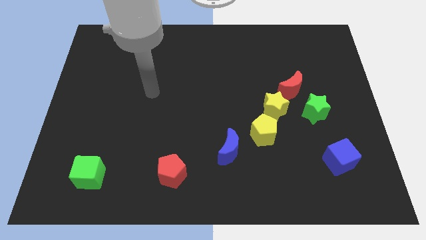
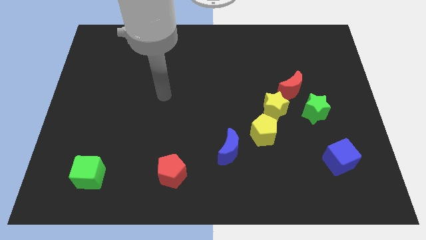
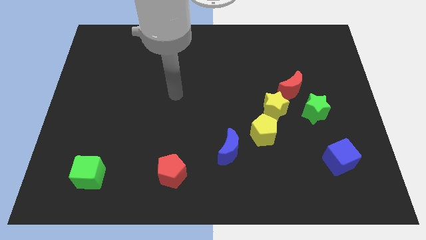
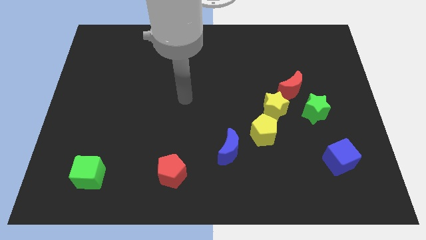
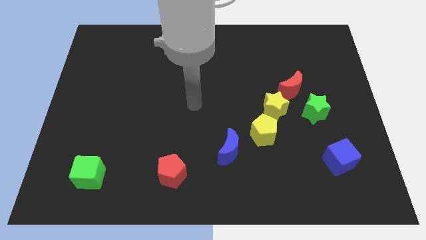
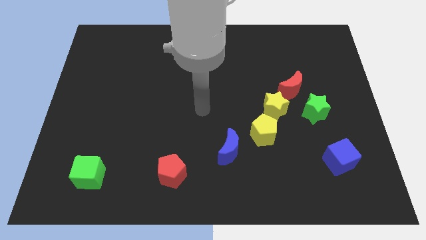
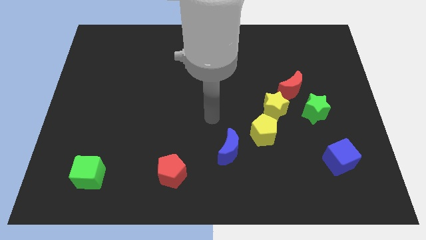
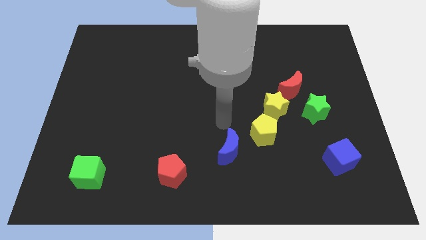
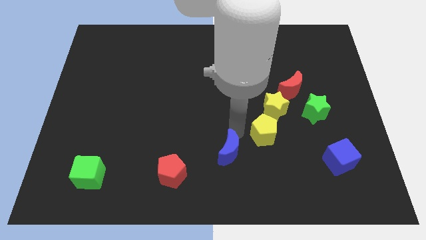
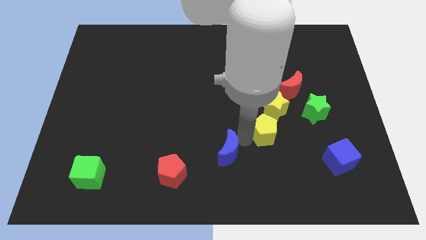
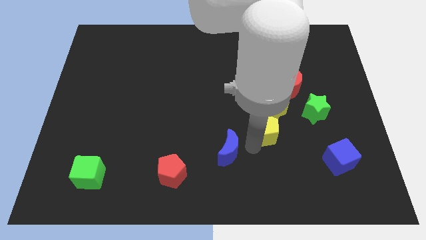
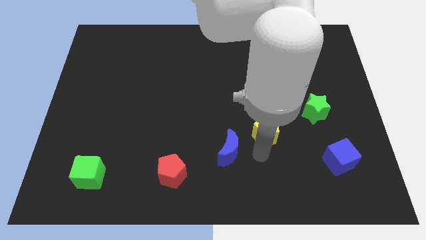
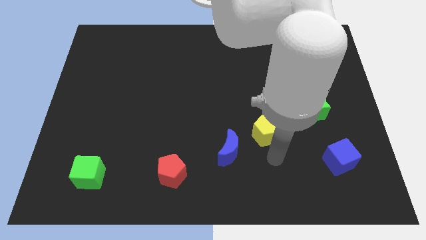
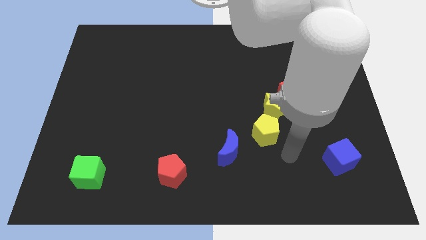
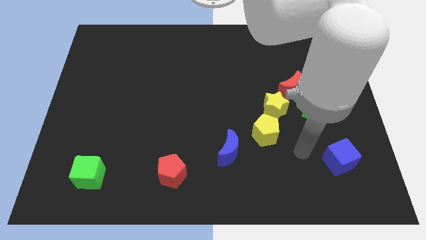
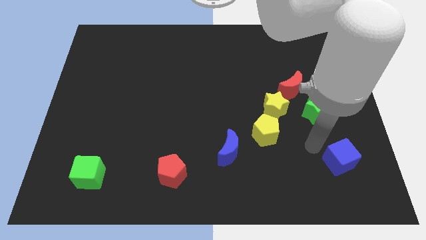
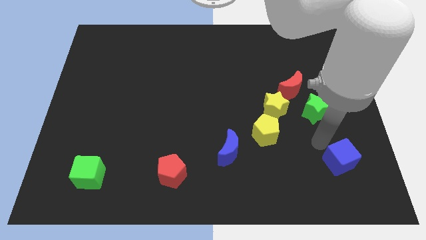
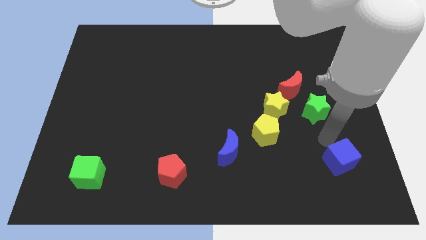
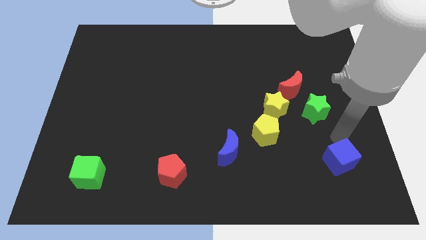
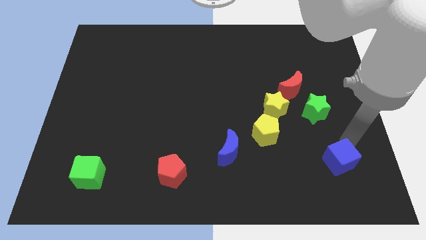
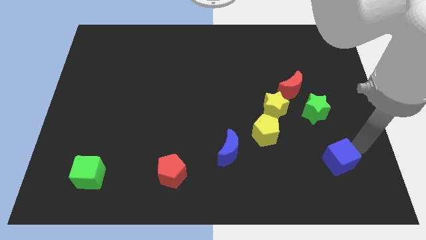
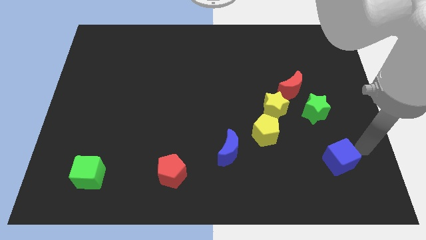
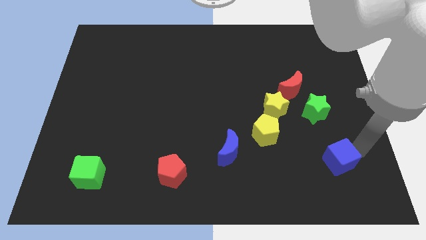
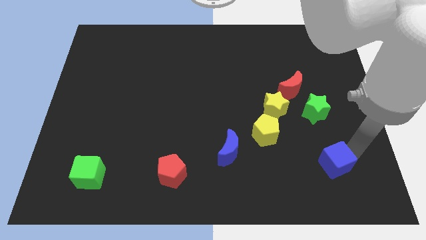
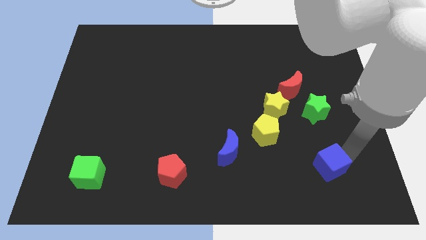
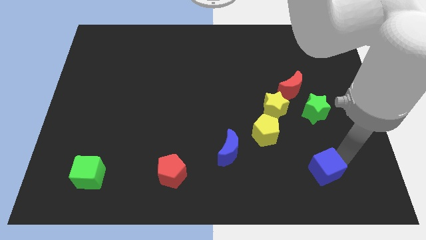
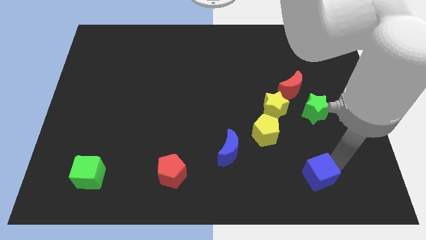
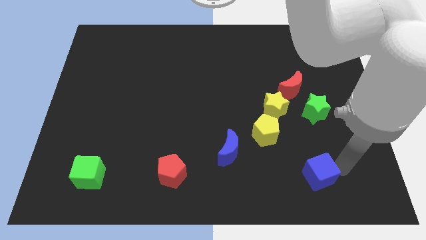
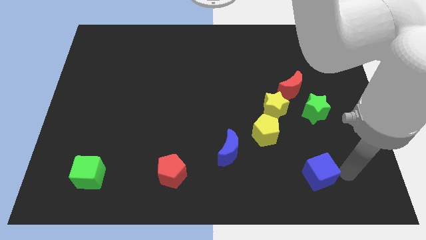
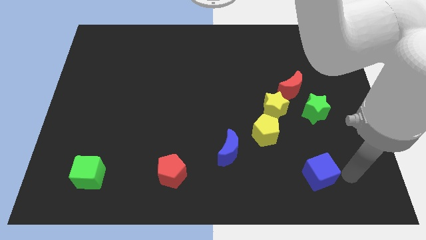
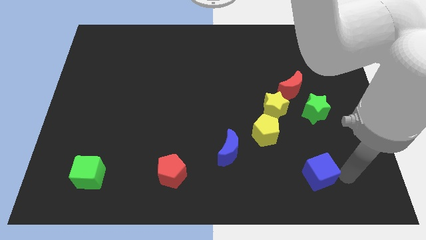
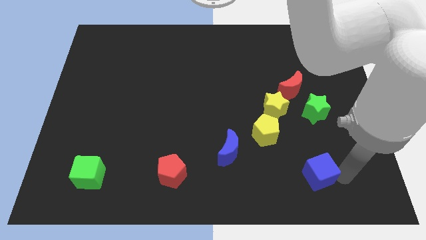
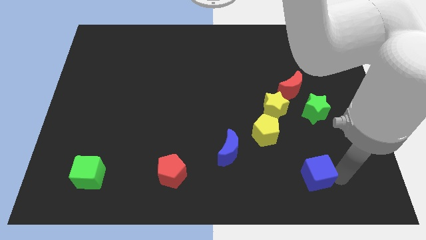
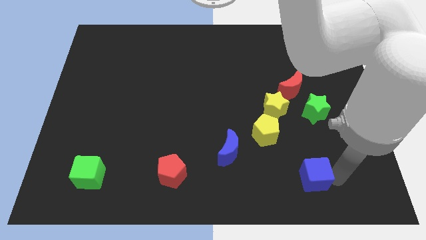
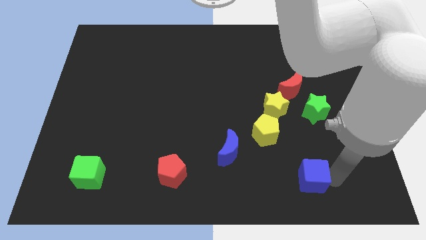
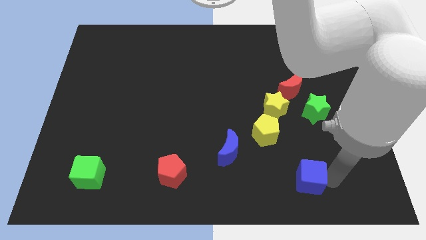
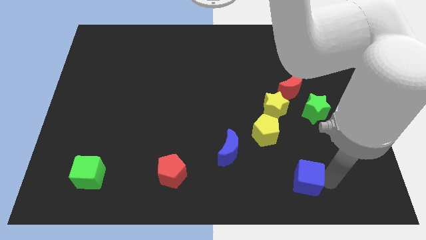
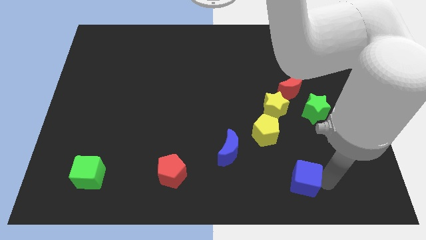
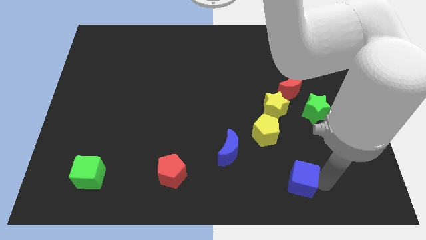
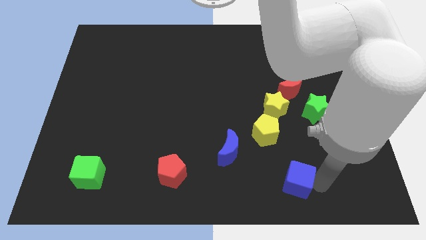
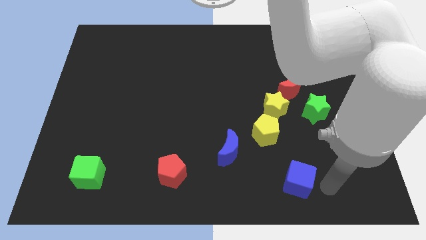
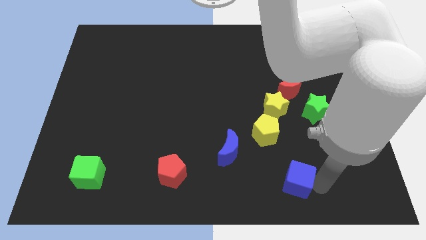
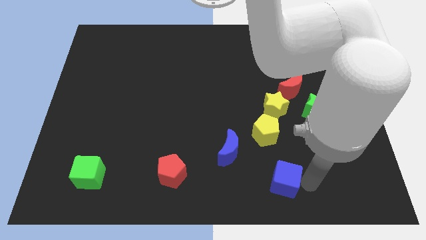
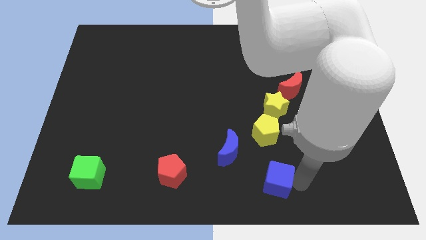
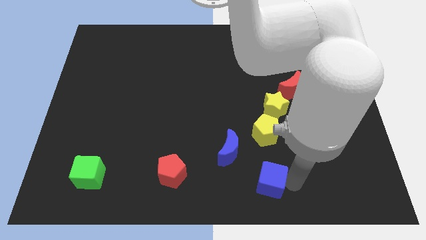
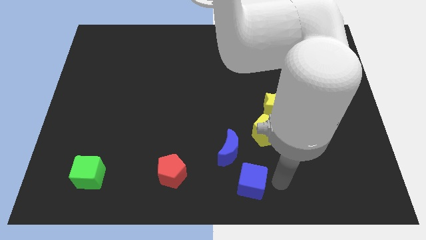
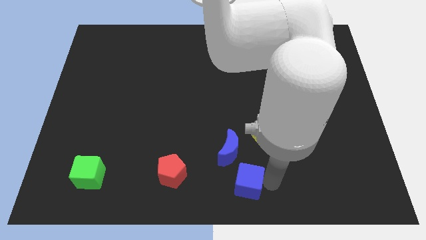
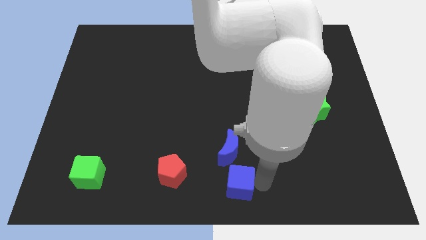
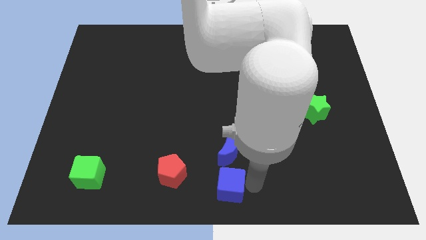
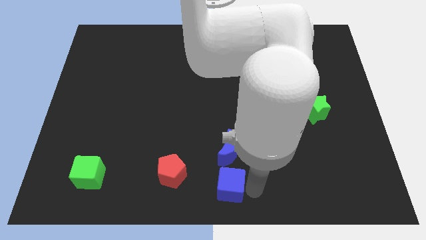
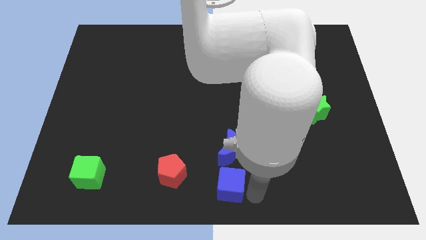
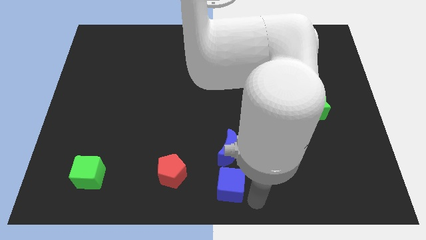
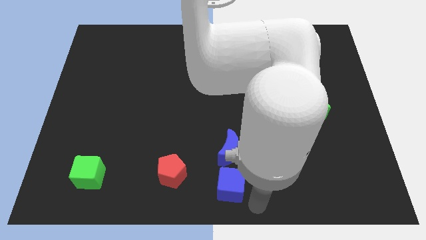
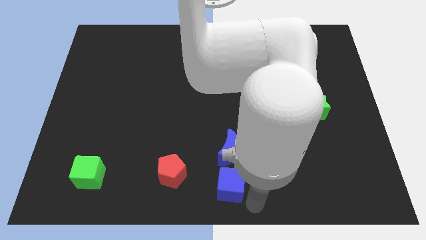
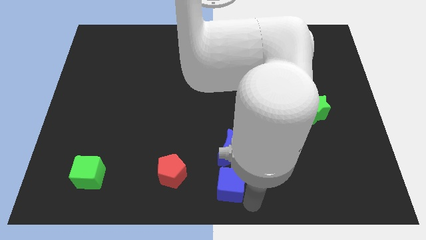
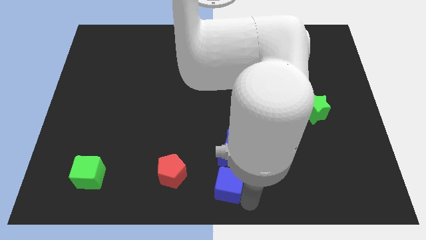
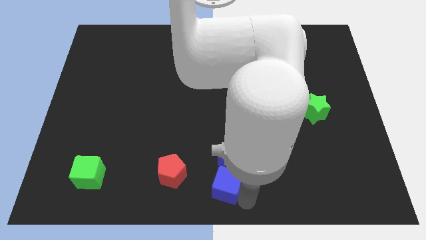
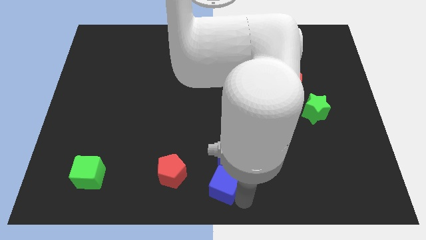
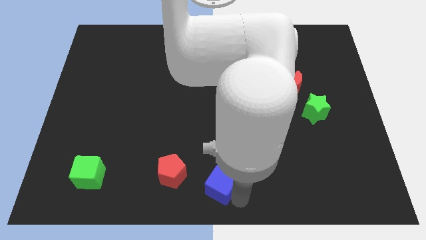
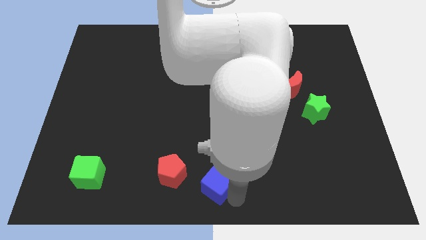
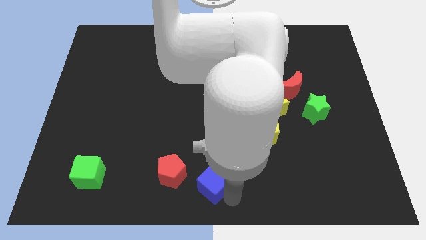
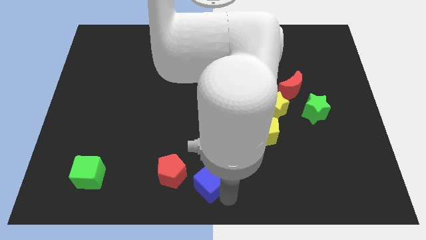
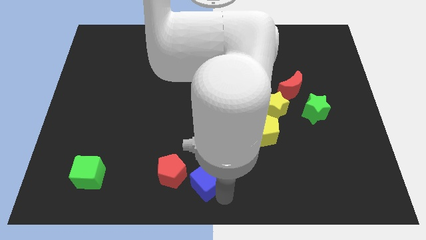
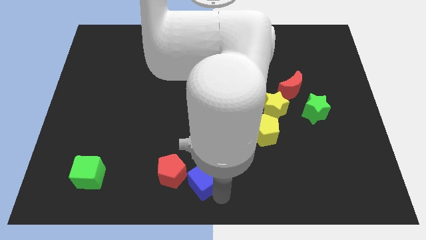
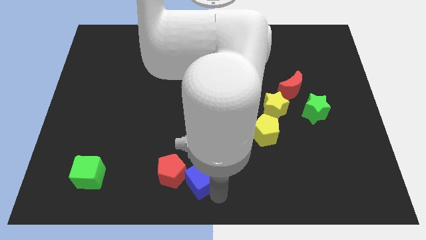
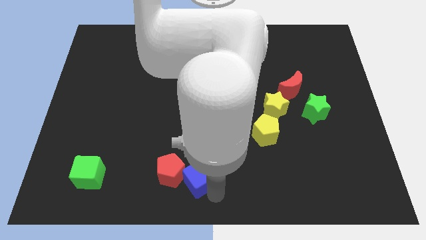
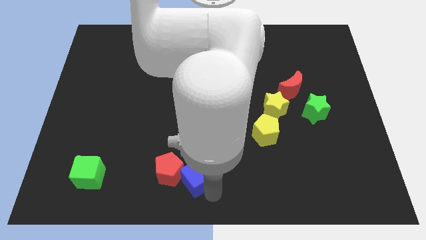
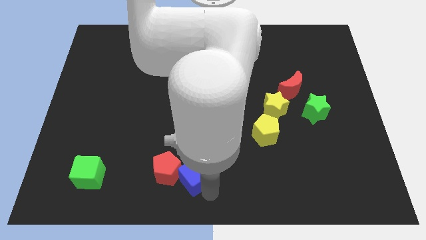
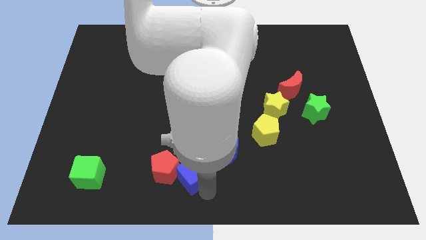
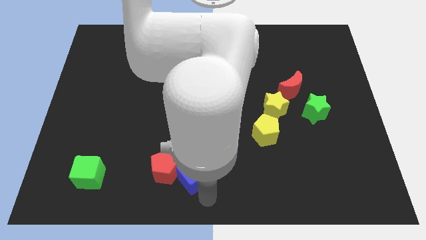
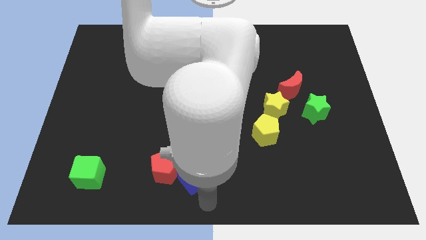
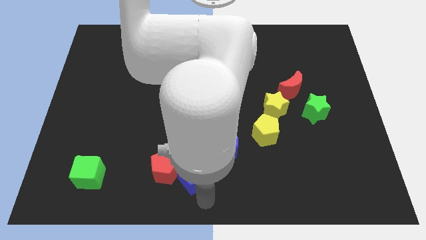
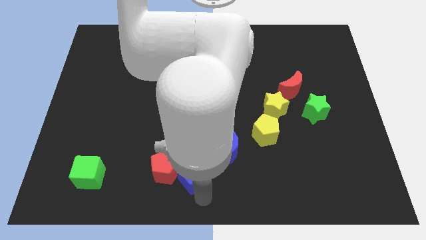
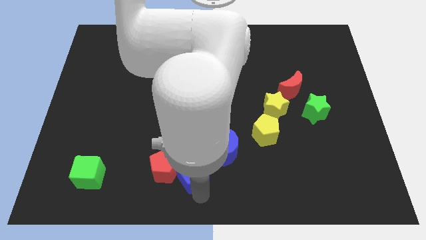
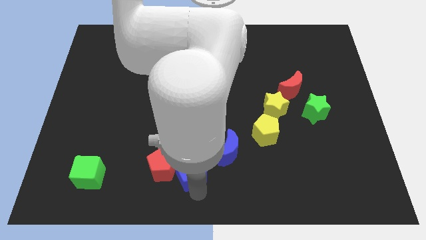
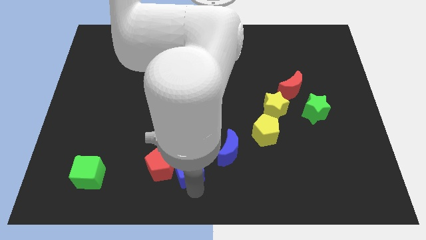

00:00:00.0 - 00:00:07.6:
slide the blue cube left of the blue moon
